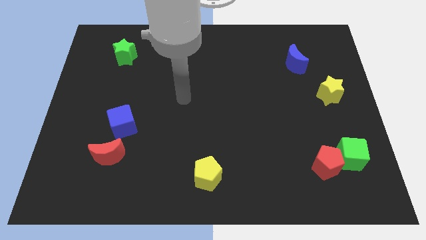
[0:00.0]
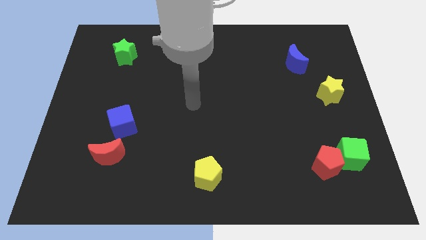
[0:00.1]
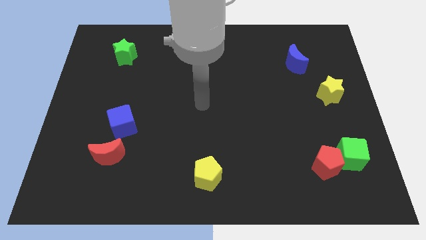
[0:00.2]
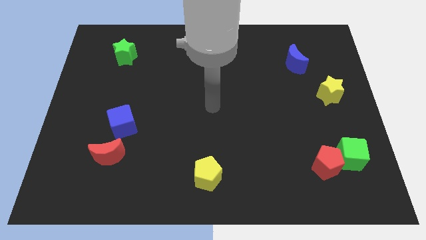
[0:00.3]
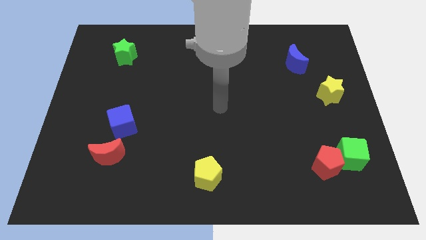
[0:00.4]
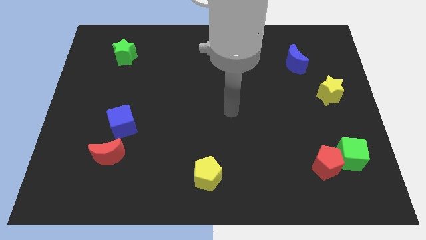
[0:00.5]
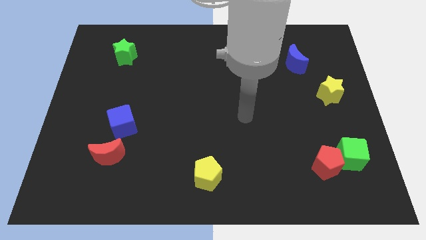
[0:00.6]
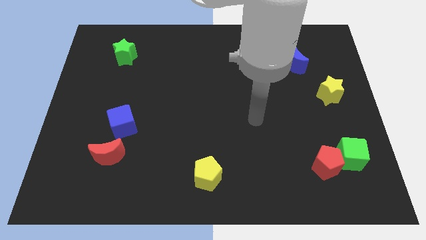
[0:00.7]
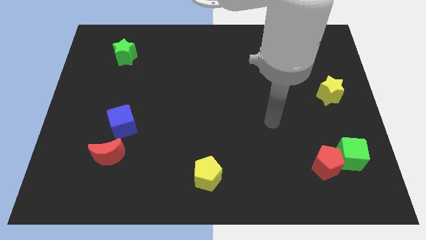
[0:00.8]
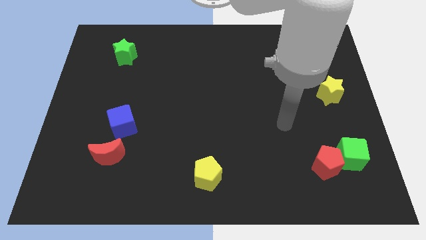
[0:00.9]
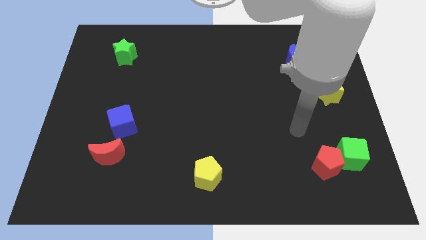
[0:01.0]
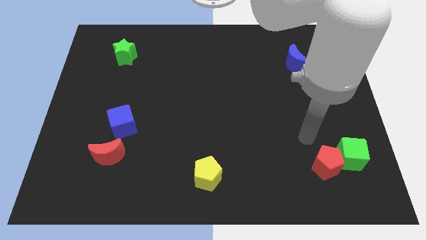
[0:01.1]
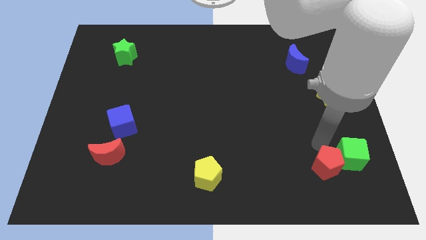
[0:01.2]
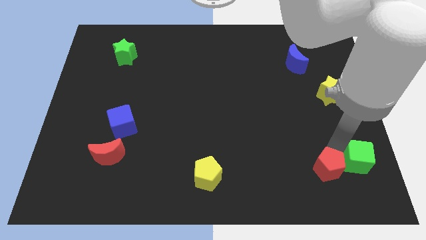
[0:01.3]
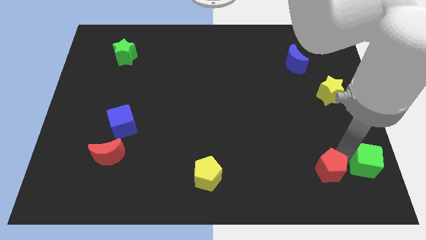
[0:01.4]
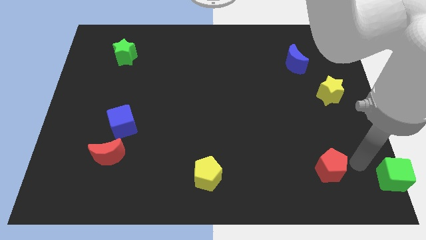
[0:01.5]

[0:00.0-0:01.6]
move the red pentagon away from the green cube

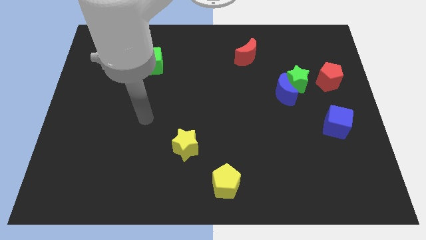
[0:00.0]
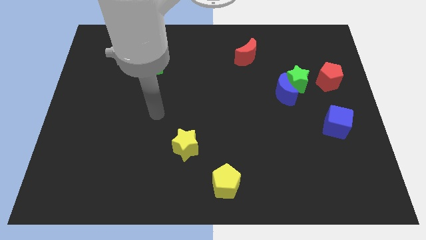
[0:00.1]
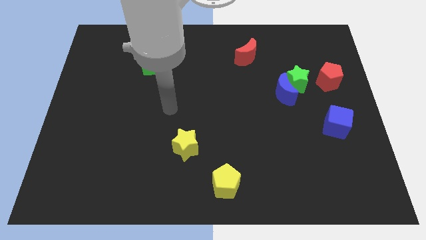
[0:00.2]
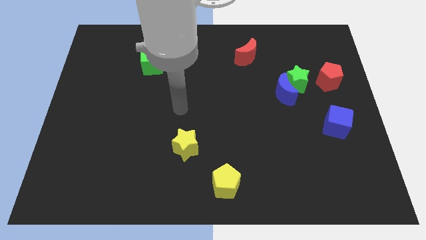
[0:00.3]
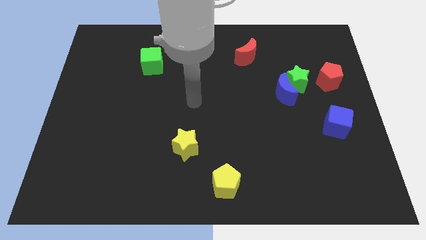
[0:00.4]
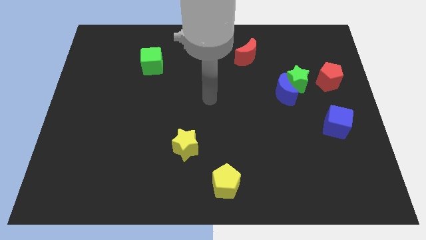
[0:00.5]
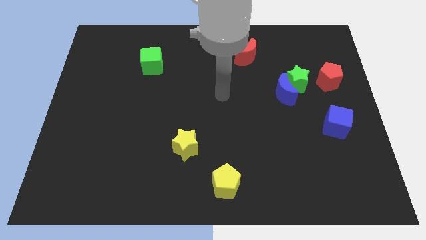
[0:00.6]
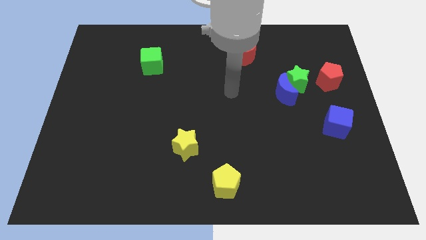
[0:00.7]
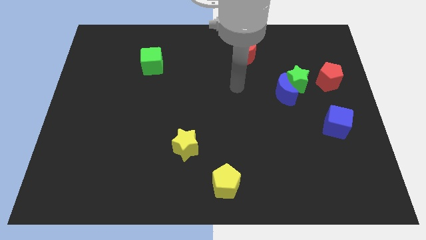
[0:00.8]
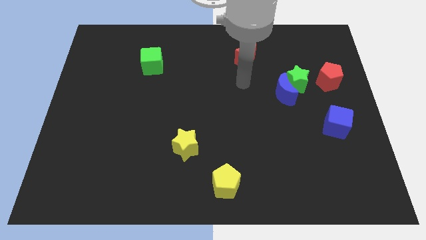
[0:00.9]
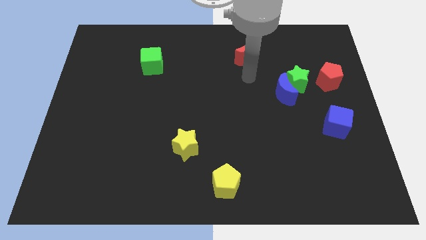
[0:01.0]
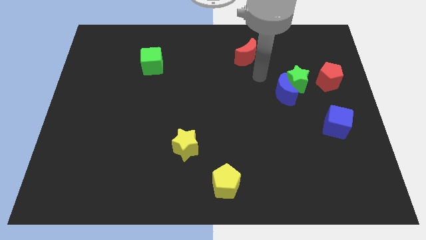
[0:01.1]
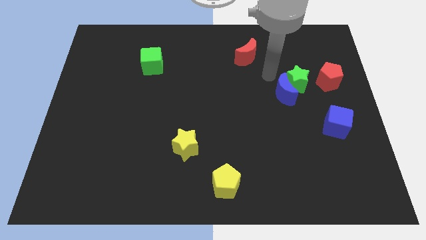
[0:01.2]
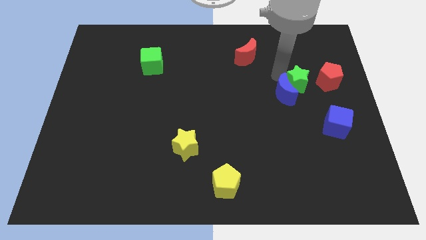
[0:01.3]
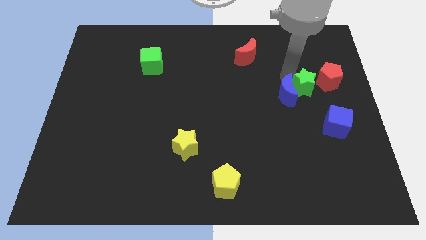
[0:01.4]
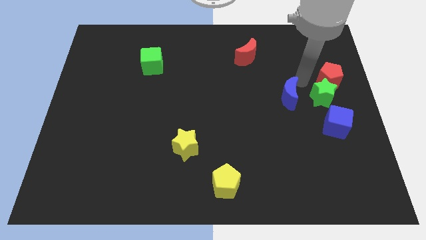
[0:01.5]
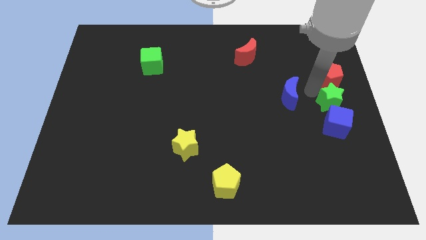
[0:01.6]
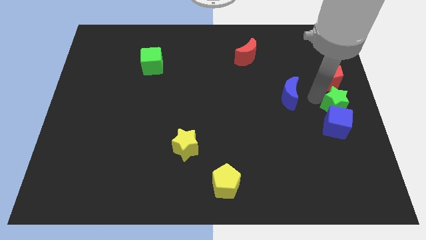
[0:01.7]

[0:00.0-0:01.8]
move the blue moon away from the green star

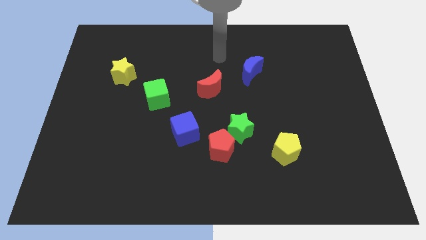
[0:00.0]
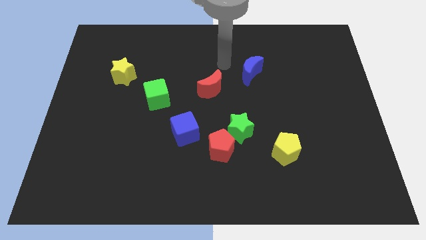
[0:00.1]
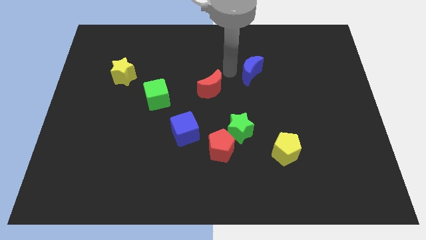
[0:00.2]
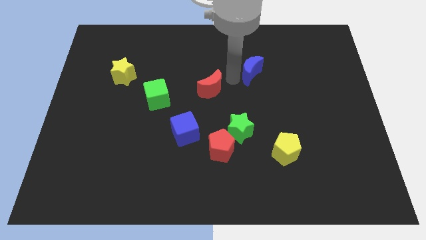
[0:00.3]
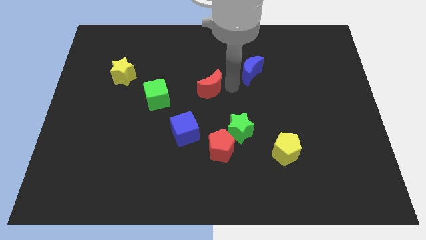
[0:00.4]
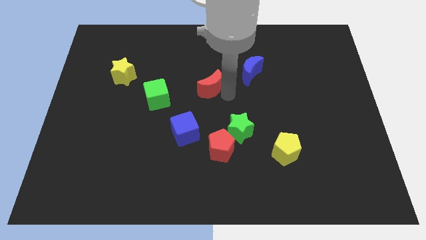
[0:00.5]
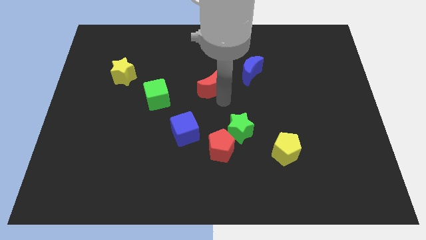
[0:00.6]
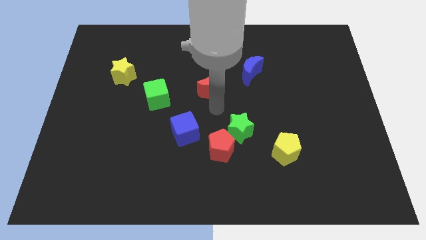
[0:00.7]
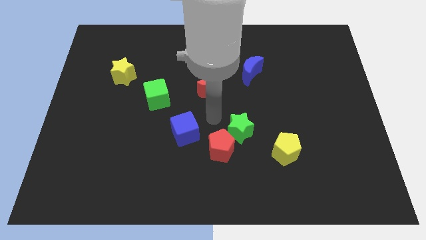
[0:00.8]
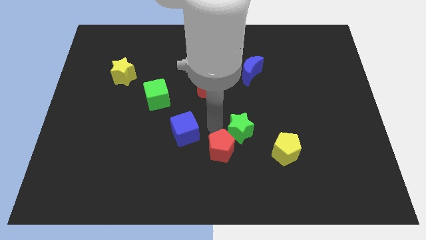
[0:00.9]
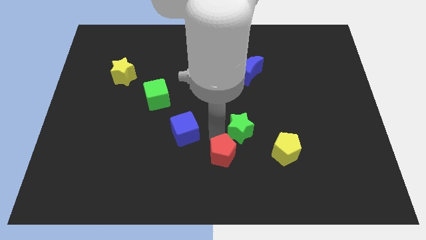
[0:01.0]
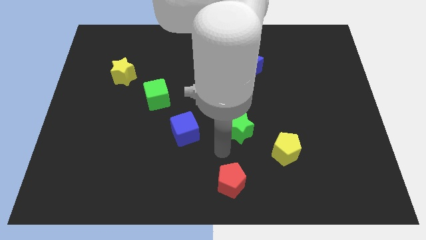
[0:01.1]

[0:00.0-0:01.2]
separate the green star from the red pentagon

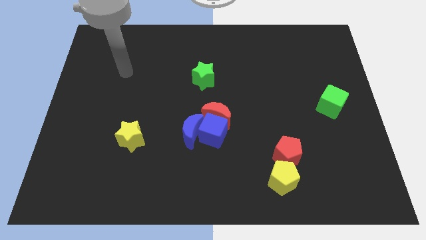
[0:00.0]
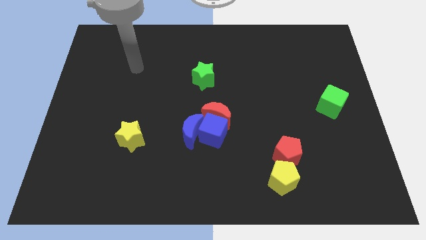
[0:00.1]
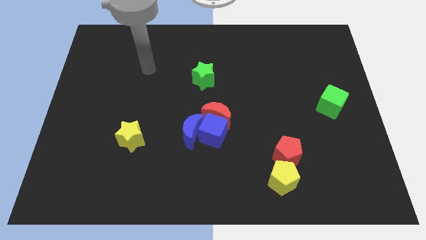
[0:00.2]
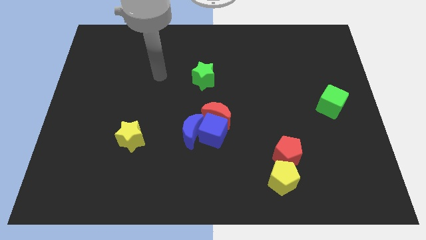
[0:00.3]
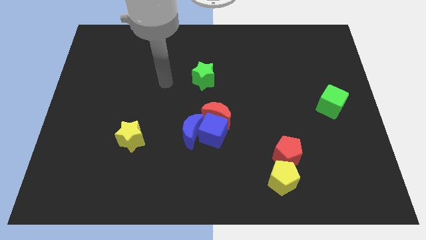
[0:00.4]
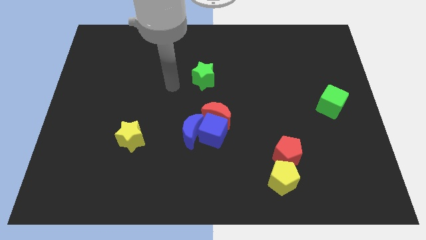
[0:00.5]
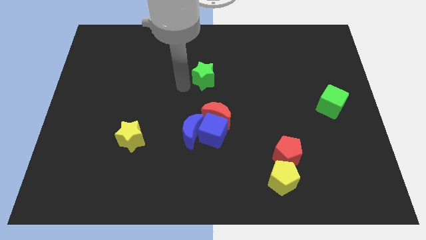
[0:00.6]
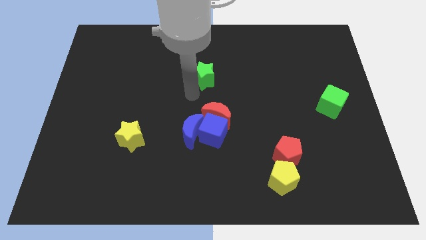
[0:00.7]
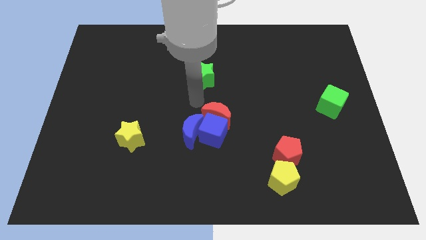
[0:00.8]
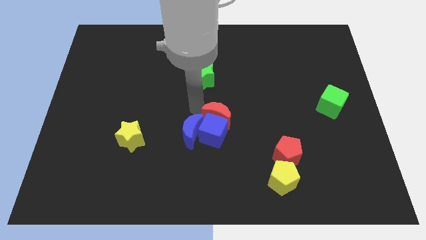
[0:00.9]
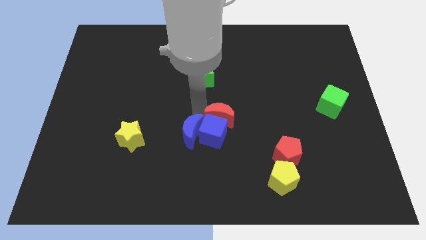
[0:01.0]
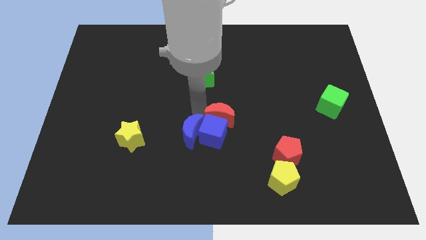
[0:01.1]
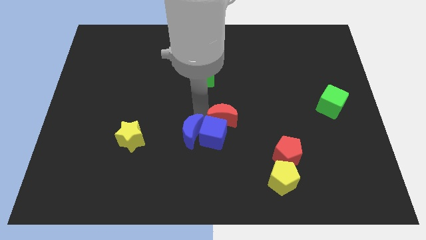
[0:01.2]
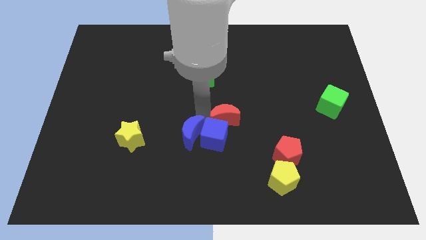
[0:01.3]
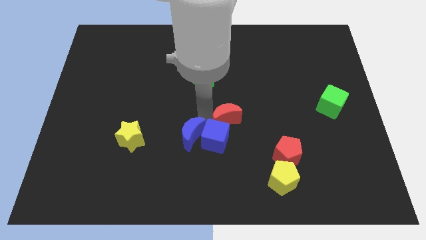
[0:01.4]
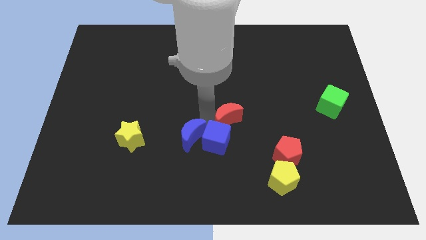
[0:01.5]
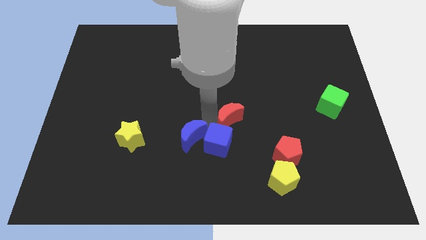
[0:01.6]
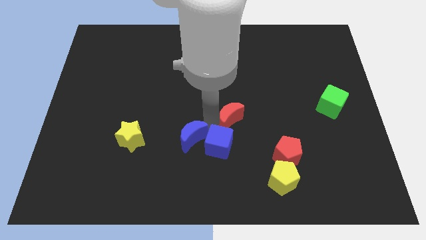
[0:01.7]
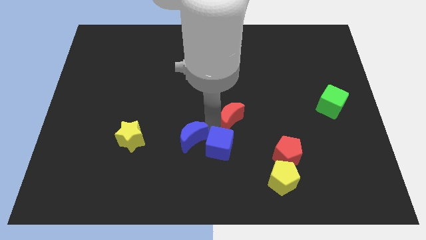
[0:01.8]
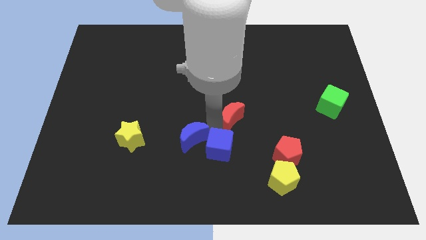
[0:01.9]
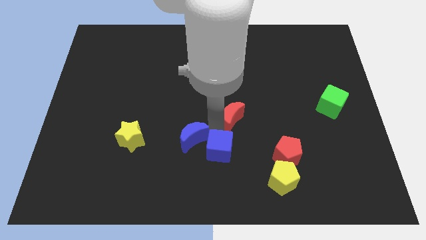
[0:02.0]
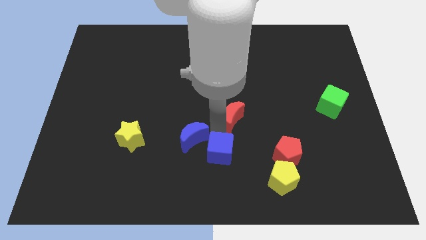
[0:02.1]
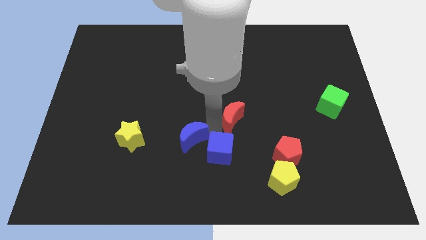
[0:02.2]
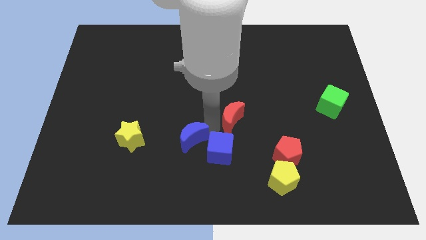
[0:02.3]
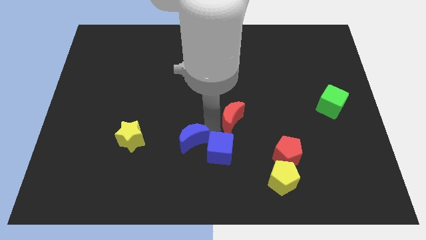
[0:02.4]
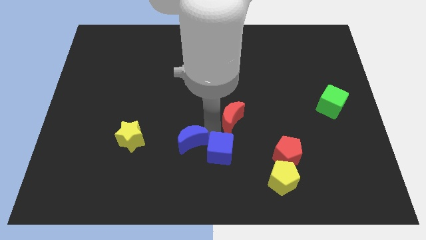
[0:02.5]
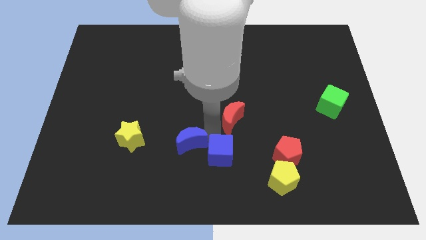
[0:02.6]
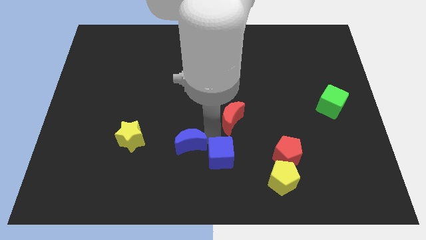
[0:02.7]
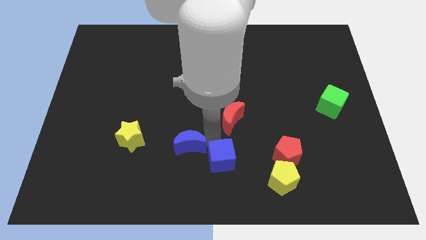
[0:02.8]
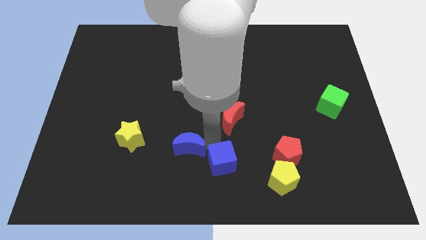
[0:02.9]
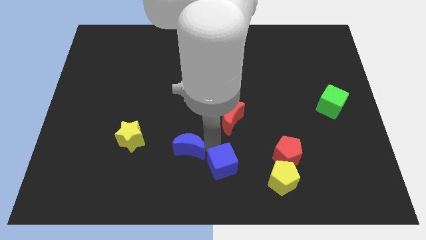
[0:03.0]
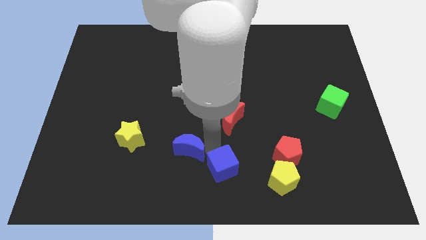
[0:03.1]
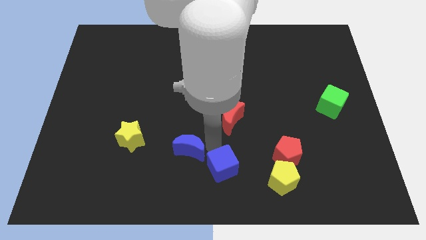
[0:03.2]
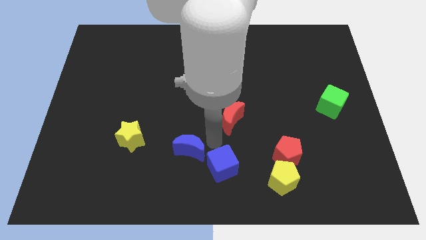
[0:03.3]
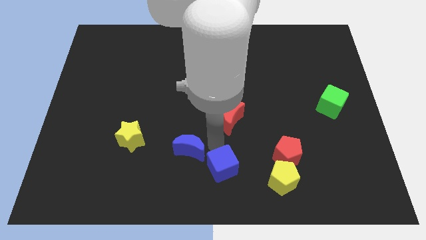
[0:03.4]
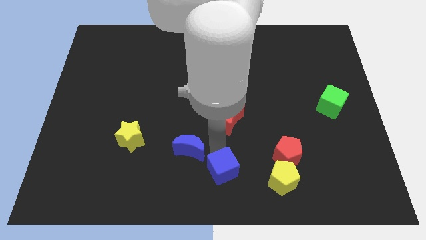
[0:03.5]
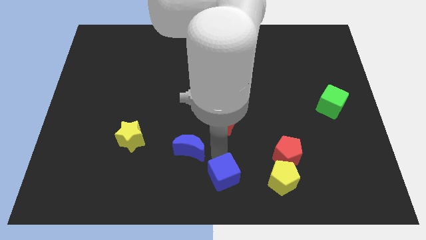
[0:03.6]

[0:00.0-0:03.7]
separate the blue cube from the red moon and blue moon

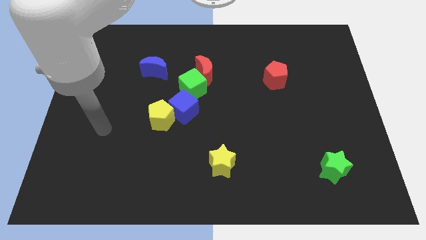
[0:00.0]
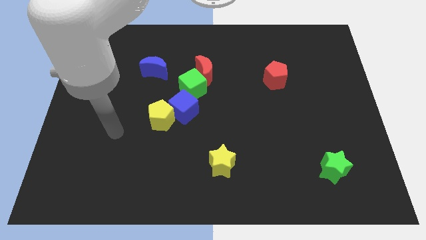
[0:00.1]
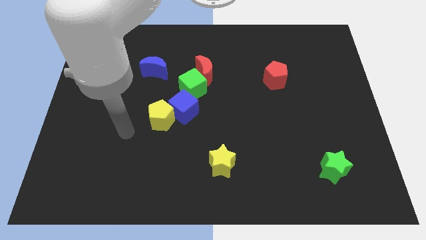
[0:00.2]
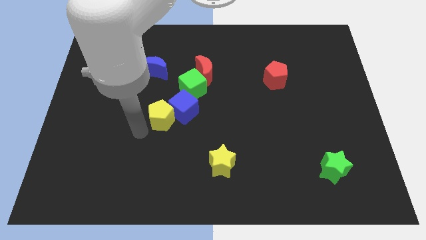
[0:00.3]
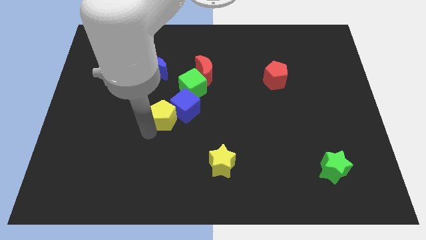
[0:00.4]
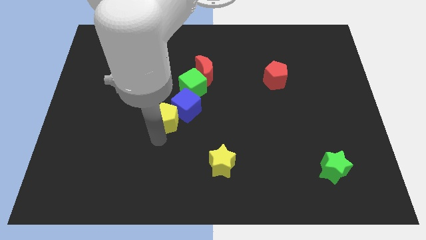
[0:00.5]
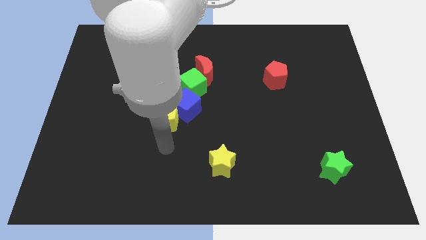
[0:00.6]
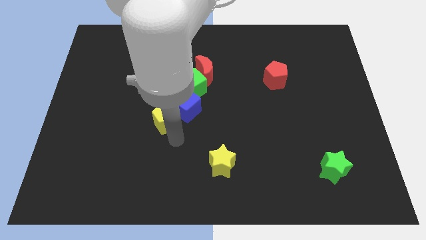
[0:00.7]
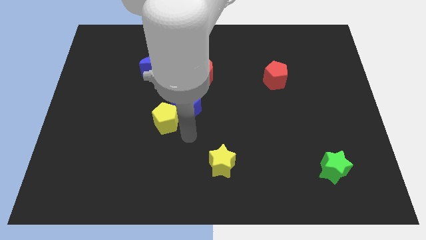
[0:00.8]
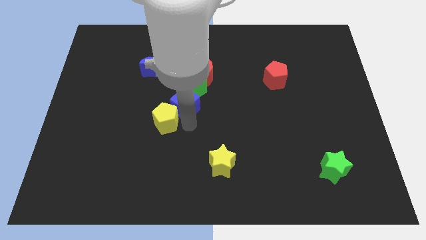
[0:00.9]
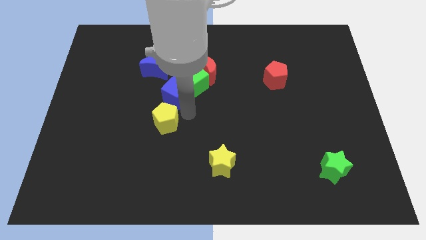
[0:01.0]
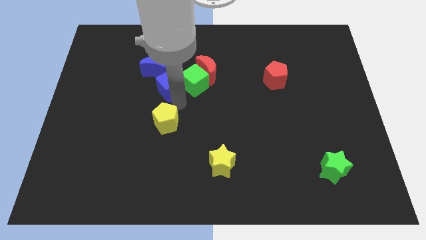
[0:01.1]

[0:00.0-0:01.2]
move the yellow pentagon away from the blue cube

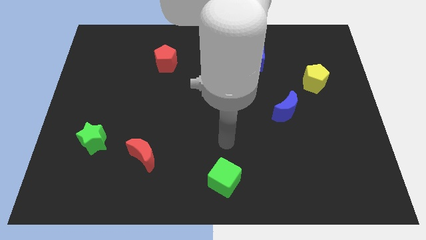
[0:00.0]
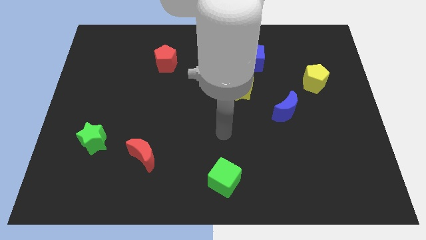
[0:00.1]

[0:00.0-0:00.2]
separate the blue cube from the yellow star
